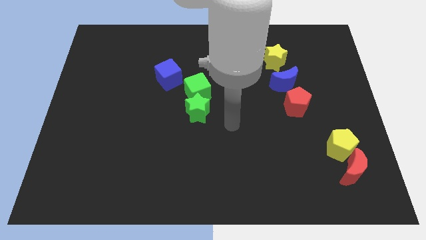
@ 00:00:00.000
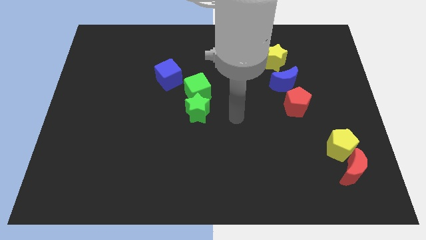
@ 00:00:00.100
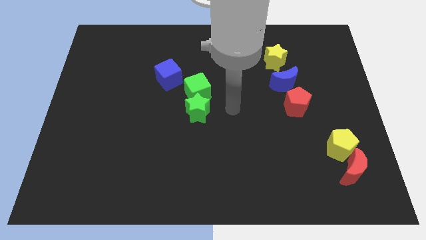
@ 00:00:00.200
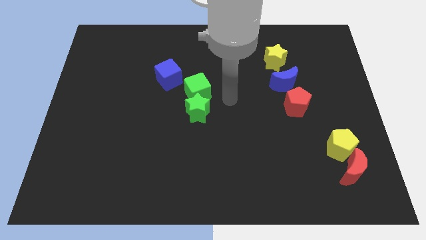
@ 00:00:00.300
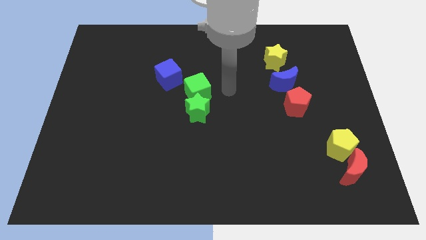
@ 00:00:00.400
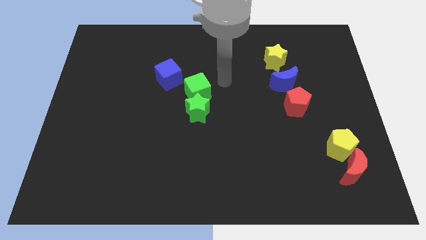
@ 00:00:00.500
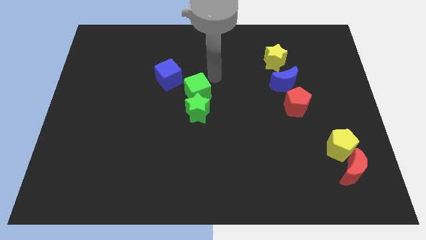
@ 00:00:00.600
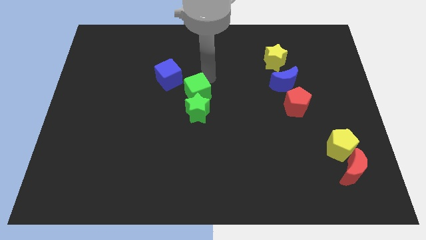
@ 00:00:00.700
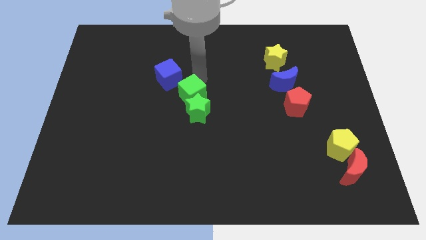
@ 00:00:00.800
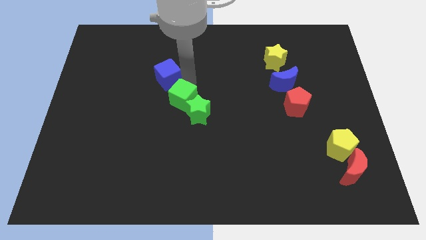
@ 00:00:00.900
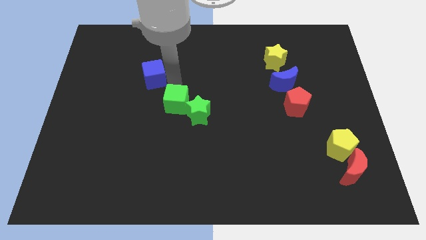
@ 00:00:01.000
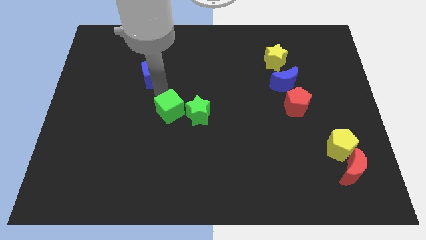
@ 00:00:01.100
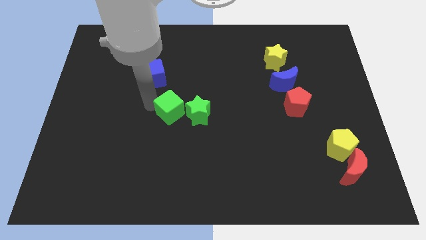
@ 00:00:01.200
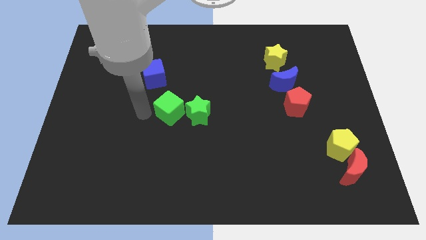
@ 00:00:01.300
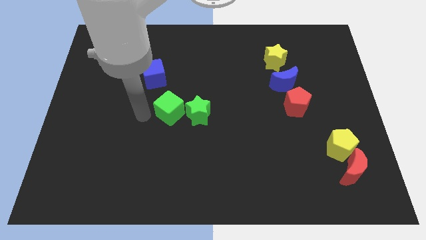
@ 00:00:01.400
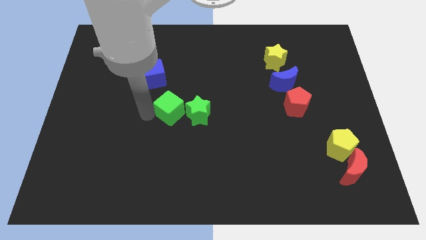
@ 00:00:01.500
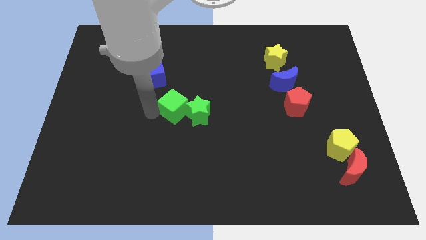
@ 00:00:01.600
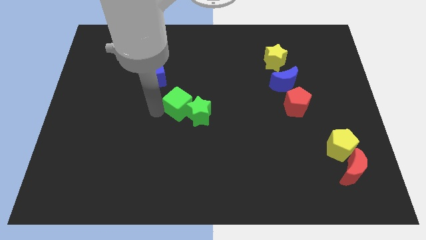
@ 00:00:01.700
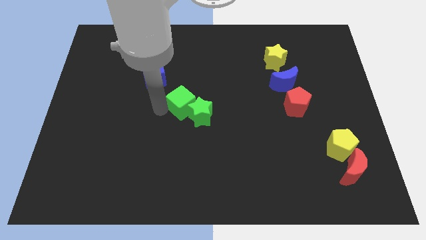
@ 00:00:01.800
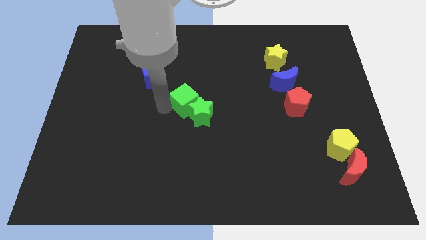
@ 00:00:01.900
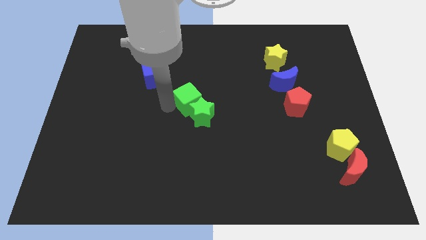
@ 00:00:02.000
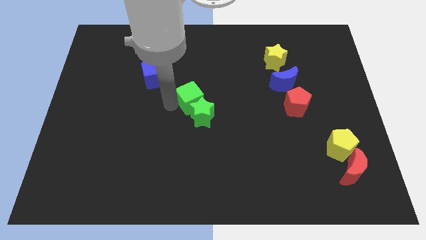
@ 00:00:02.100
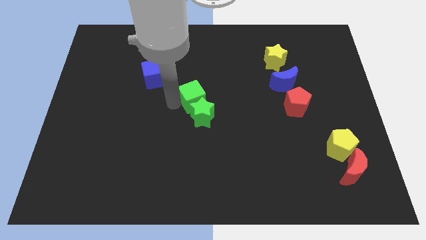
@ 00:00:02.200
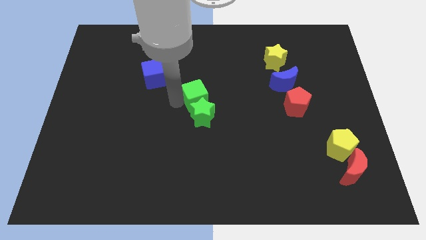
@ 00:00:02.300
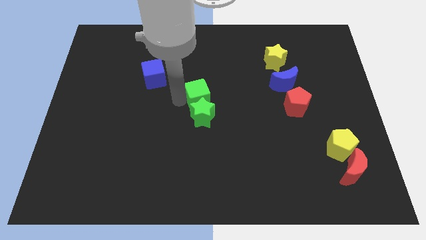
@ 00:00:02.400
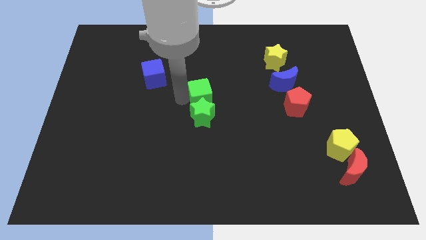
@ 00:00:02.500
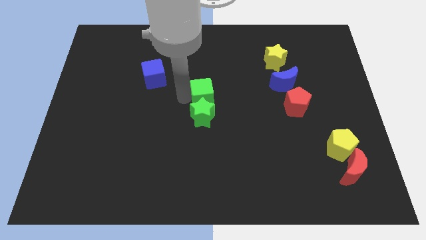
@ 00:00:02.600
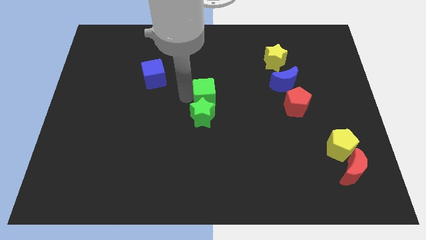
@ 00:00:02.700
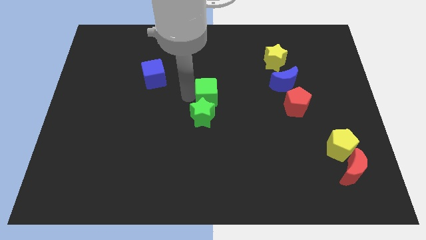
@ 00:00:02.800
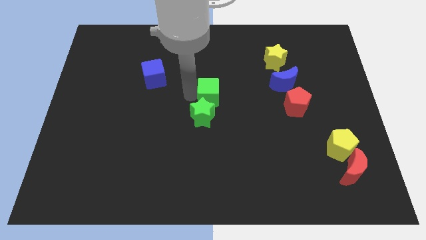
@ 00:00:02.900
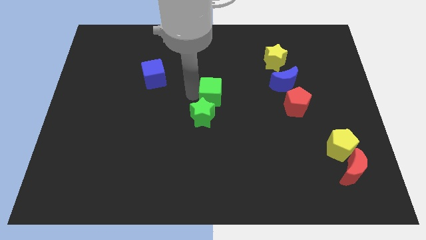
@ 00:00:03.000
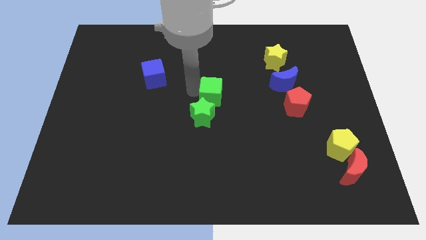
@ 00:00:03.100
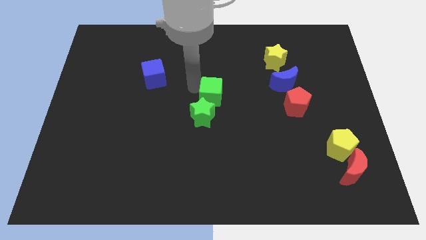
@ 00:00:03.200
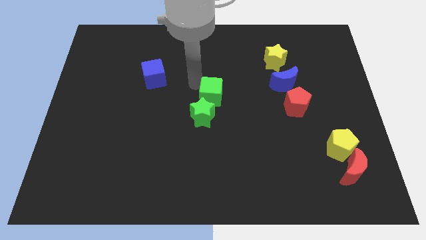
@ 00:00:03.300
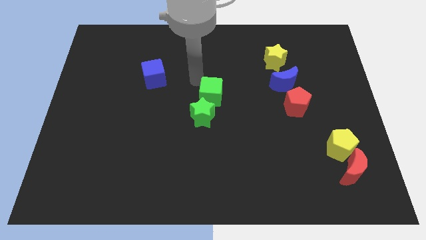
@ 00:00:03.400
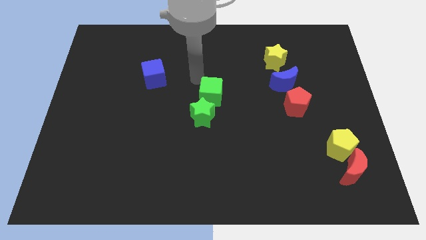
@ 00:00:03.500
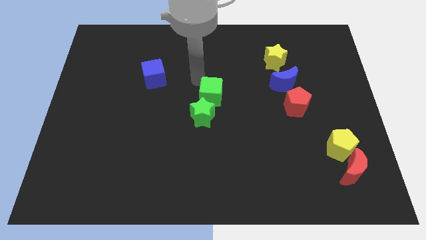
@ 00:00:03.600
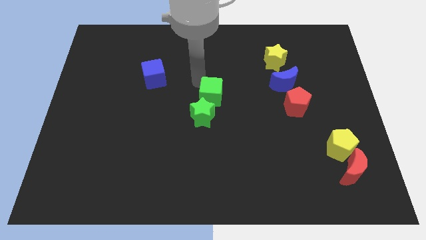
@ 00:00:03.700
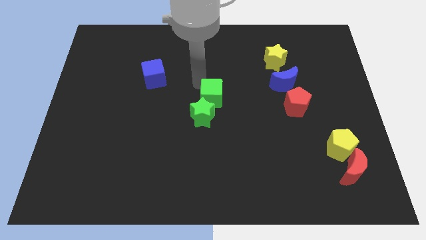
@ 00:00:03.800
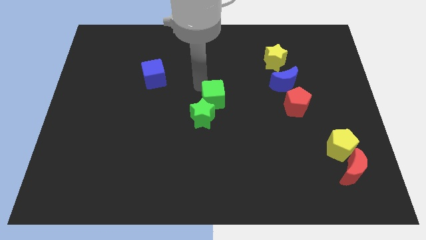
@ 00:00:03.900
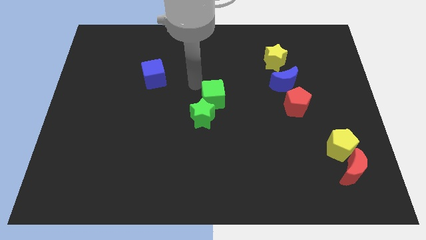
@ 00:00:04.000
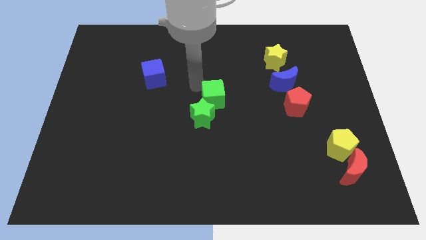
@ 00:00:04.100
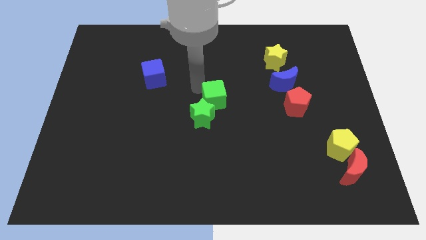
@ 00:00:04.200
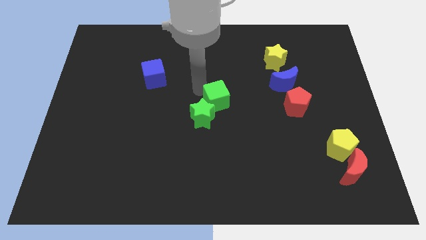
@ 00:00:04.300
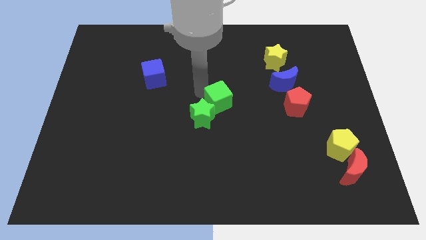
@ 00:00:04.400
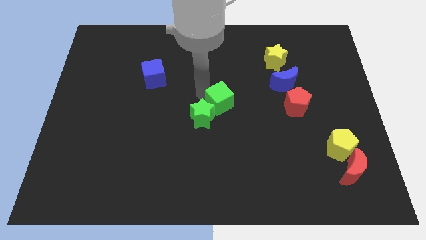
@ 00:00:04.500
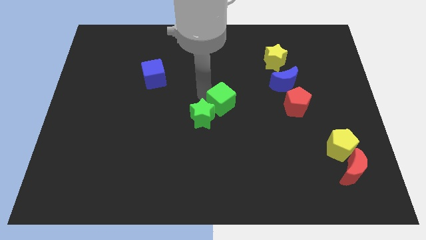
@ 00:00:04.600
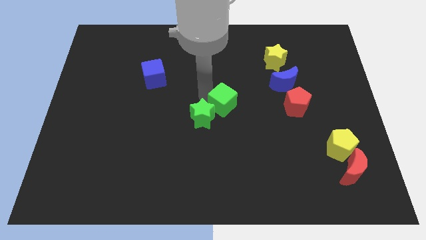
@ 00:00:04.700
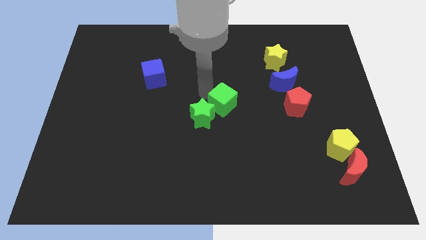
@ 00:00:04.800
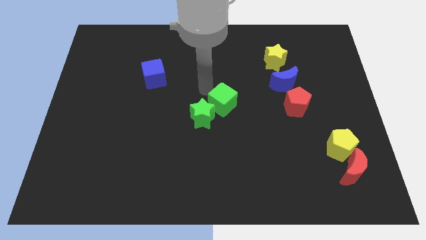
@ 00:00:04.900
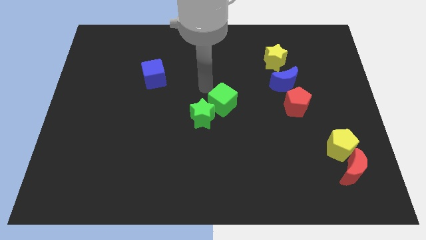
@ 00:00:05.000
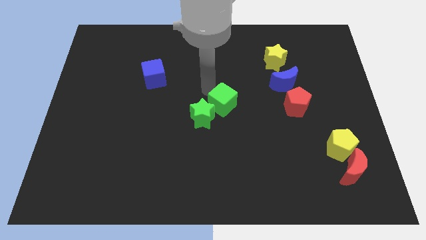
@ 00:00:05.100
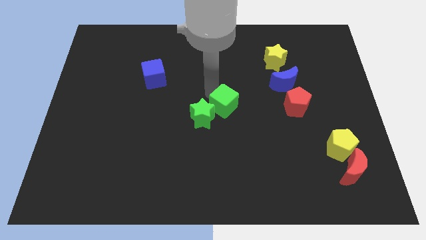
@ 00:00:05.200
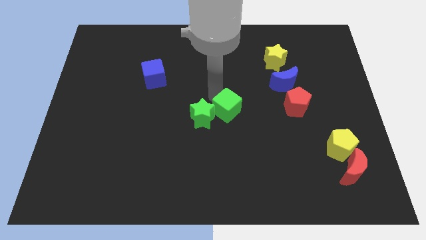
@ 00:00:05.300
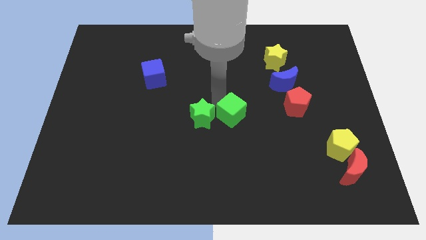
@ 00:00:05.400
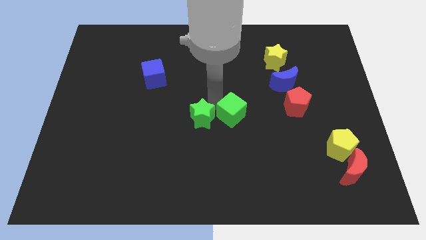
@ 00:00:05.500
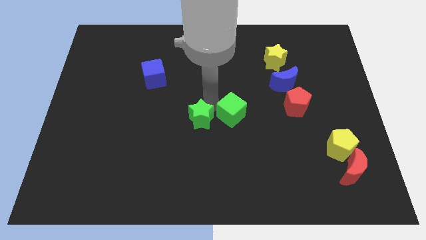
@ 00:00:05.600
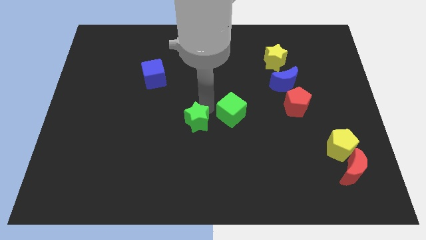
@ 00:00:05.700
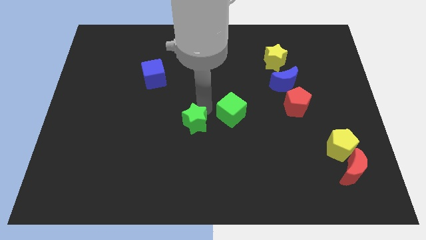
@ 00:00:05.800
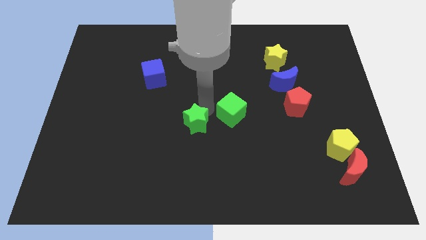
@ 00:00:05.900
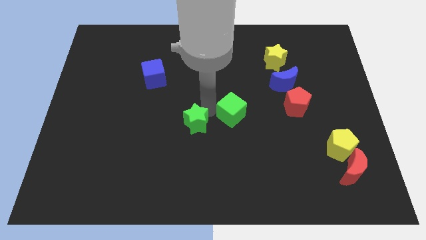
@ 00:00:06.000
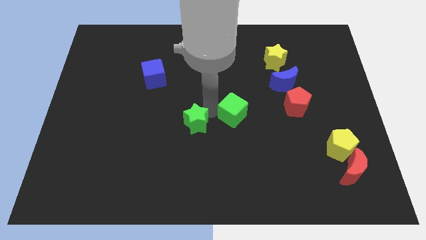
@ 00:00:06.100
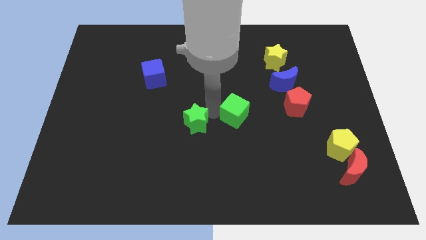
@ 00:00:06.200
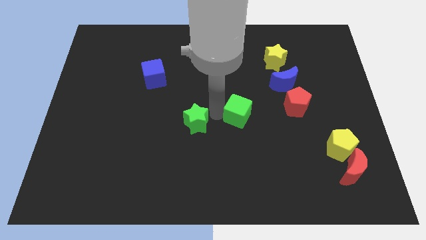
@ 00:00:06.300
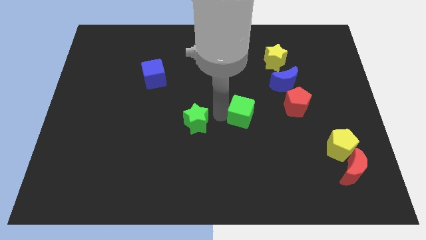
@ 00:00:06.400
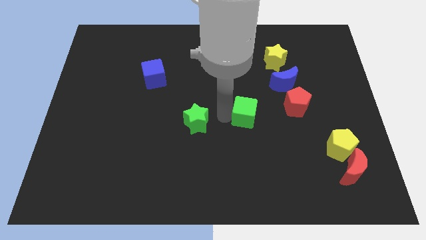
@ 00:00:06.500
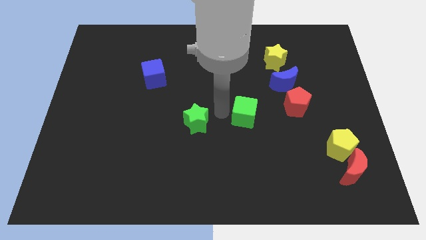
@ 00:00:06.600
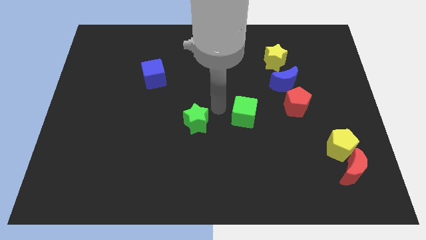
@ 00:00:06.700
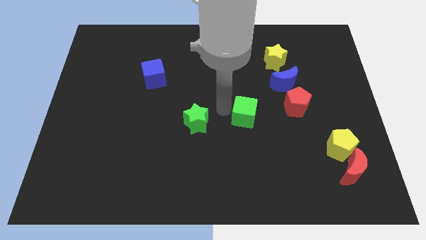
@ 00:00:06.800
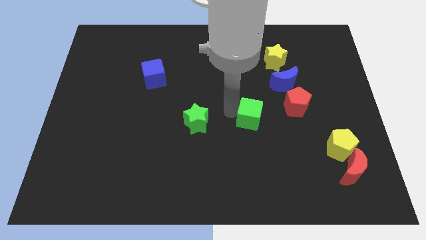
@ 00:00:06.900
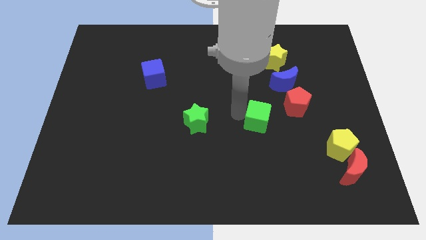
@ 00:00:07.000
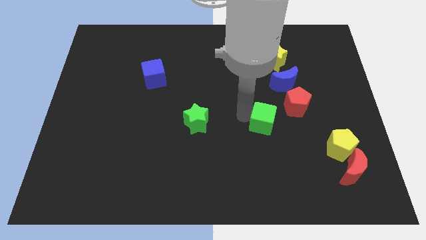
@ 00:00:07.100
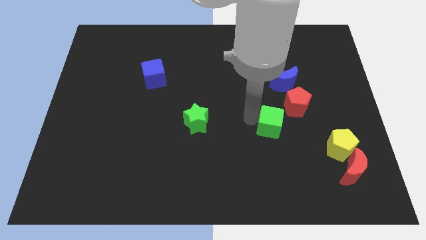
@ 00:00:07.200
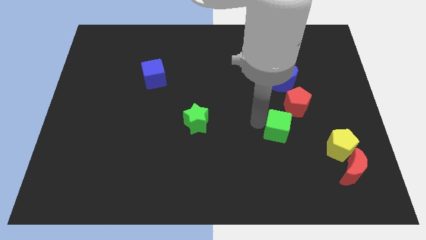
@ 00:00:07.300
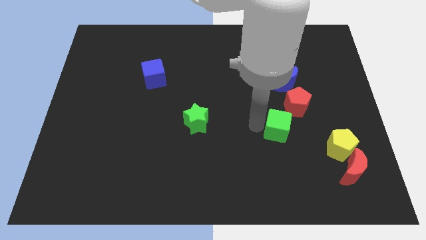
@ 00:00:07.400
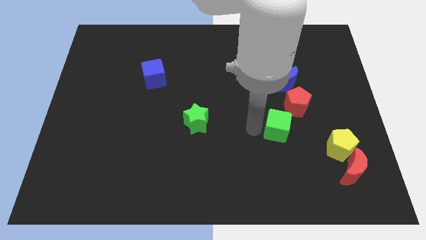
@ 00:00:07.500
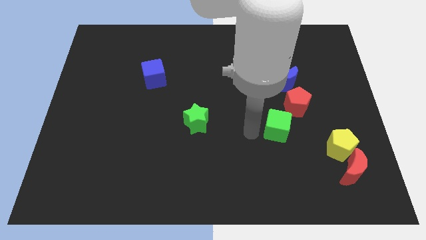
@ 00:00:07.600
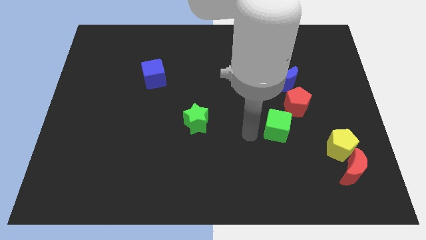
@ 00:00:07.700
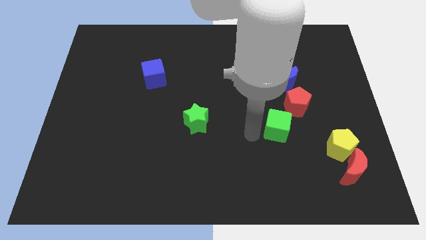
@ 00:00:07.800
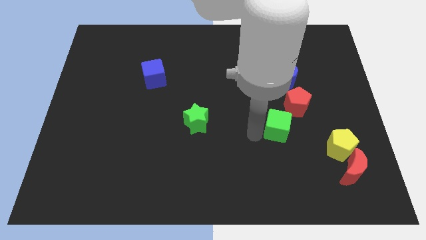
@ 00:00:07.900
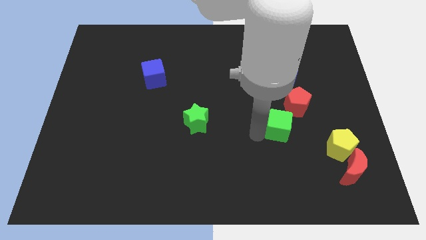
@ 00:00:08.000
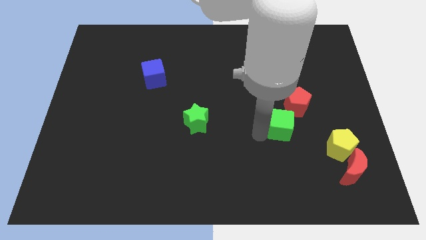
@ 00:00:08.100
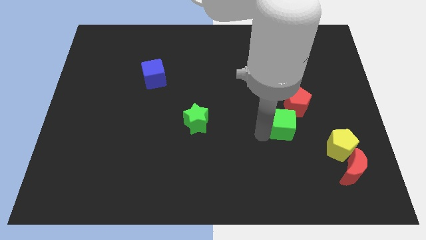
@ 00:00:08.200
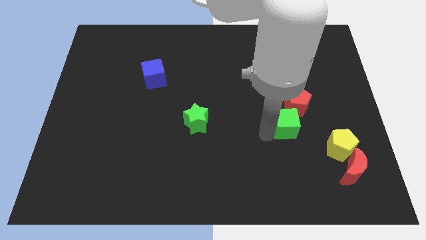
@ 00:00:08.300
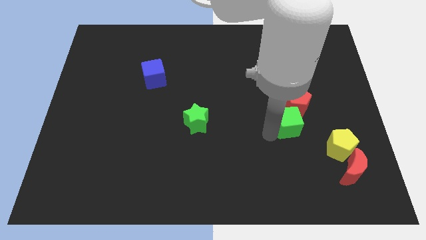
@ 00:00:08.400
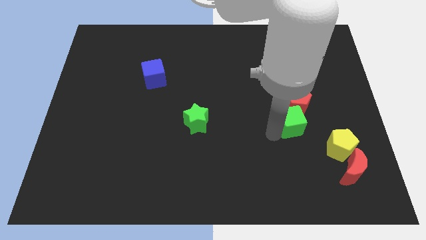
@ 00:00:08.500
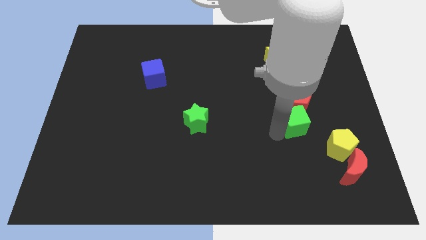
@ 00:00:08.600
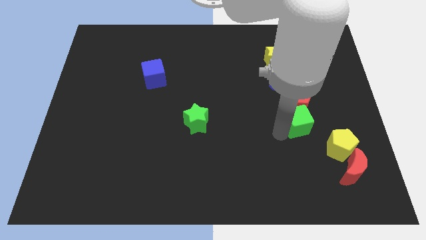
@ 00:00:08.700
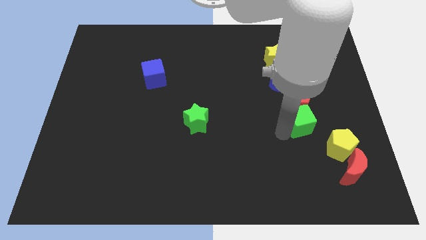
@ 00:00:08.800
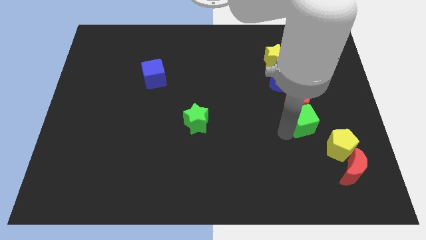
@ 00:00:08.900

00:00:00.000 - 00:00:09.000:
push the green cube to the right
